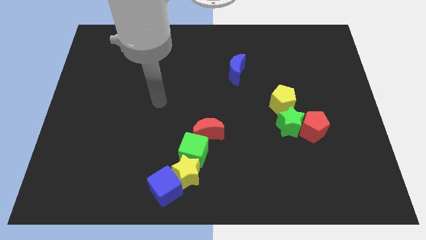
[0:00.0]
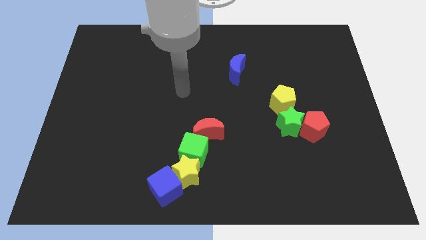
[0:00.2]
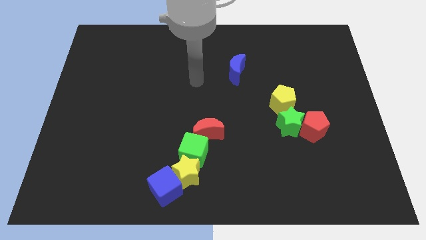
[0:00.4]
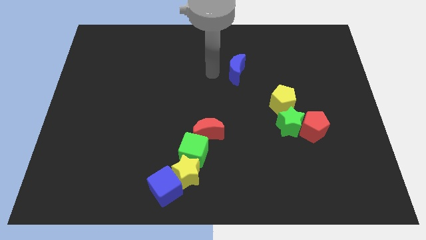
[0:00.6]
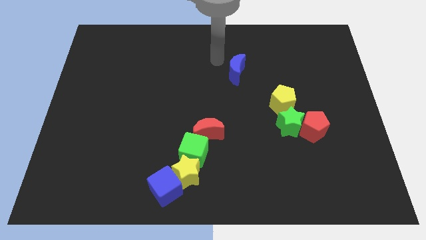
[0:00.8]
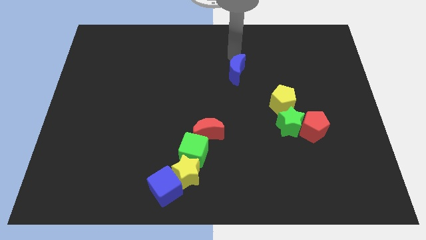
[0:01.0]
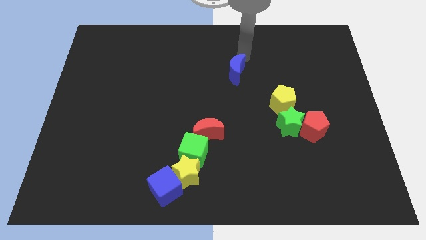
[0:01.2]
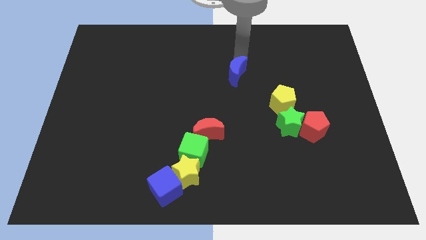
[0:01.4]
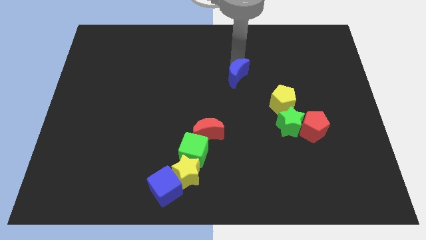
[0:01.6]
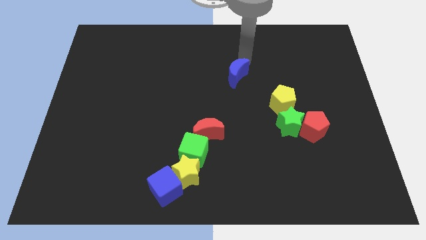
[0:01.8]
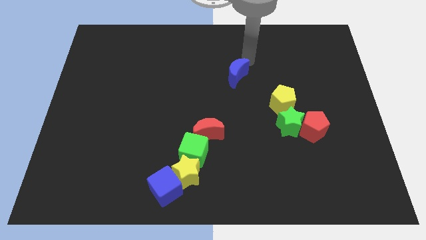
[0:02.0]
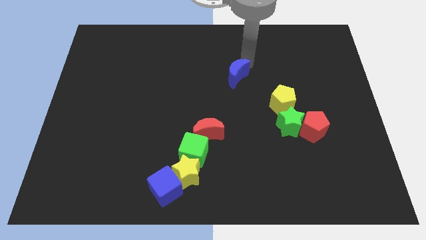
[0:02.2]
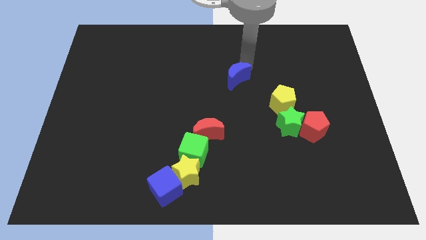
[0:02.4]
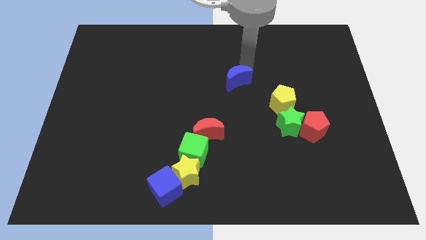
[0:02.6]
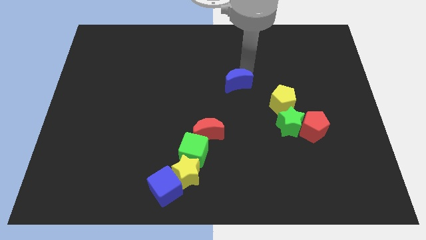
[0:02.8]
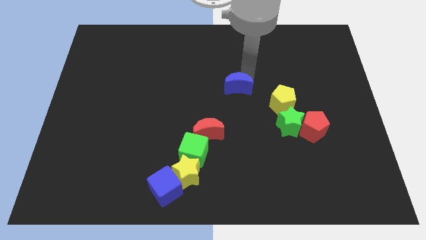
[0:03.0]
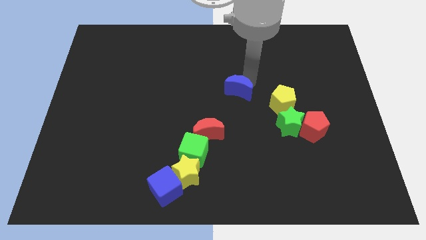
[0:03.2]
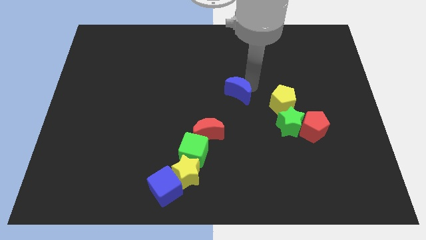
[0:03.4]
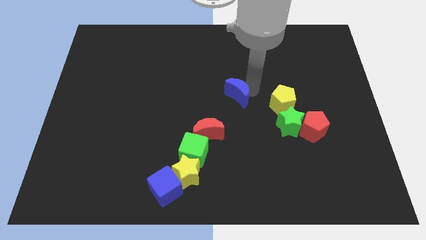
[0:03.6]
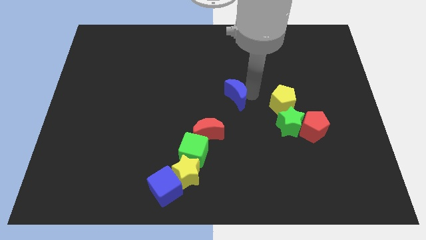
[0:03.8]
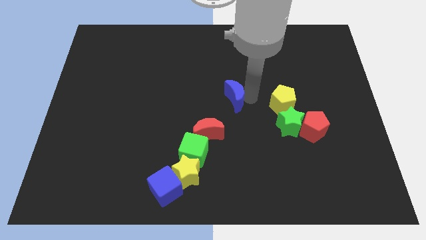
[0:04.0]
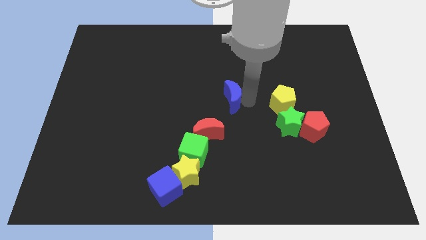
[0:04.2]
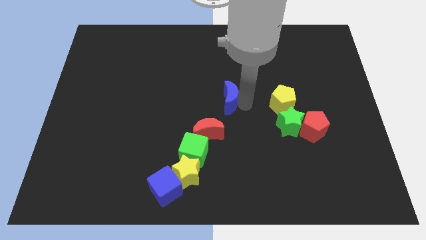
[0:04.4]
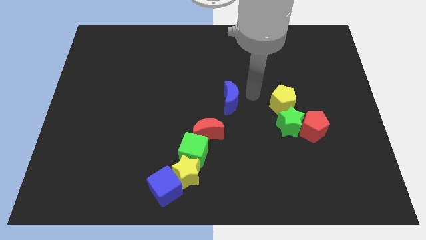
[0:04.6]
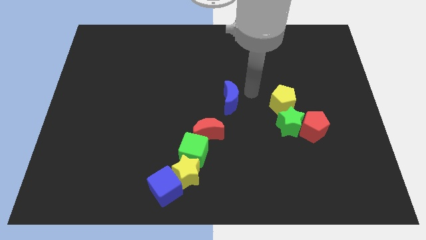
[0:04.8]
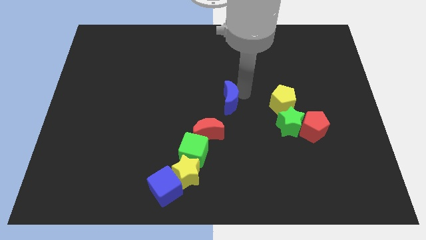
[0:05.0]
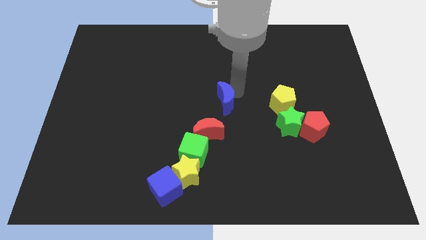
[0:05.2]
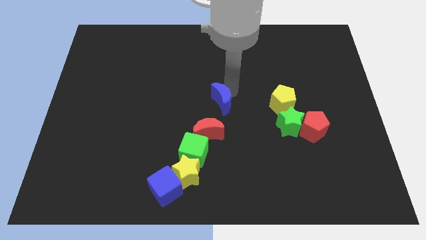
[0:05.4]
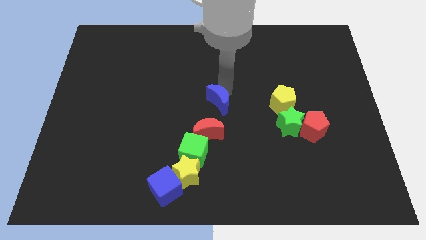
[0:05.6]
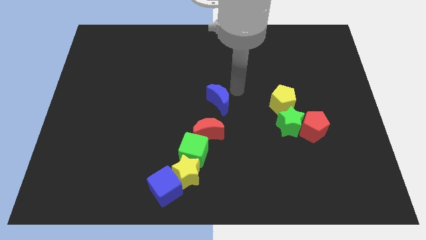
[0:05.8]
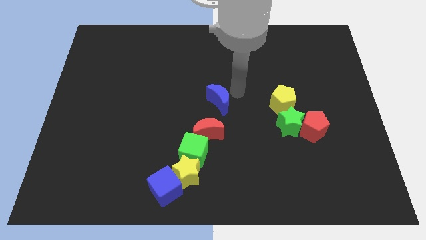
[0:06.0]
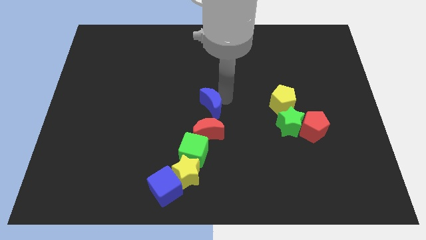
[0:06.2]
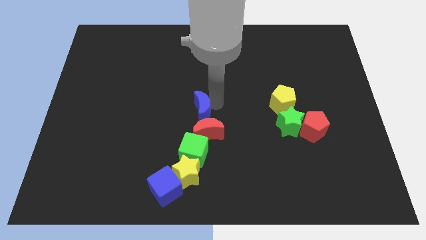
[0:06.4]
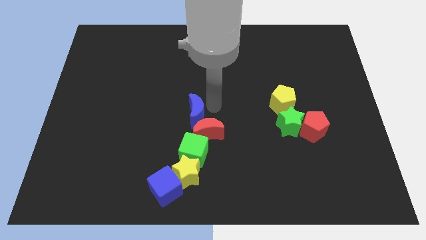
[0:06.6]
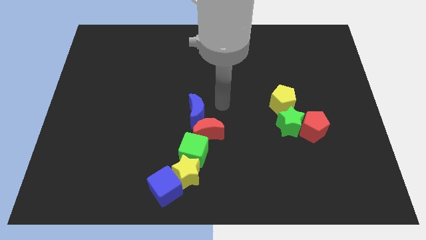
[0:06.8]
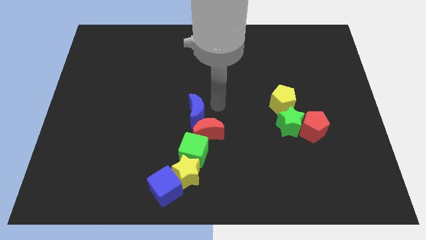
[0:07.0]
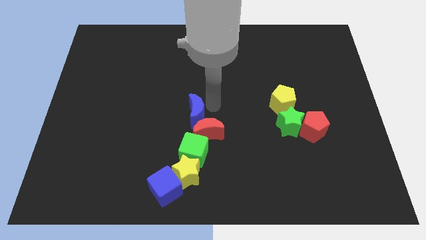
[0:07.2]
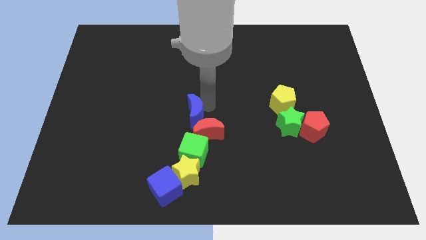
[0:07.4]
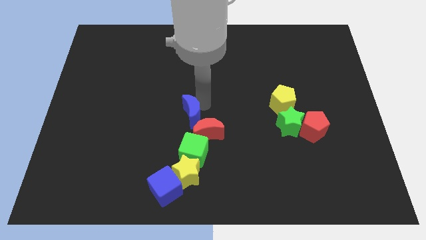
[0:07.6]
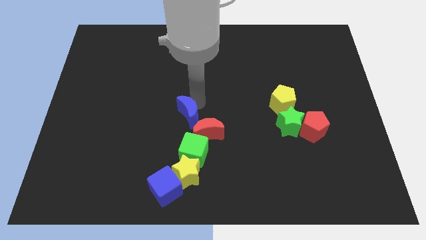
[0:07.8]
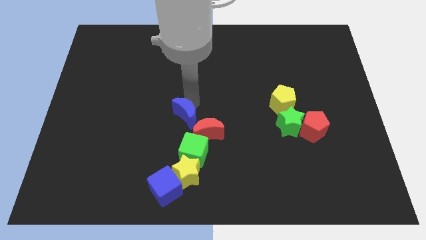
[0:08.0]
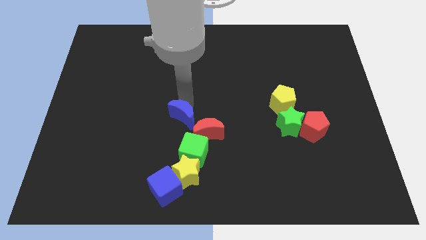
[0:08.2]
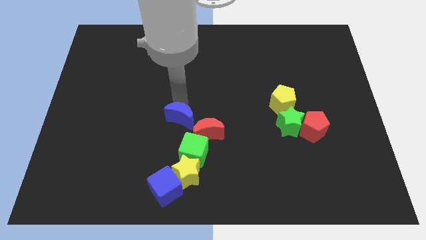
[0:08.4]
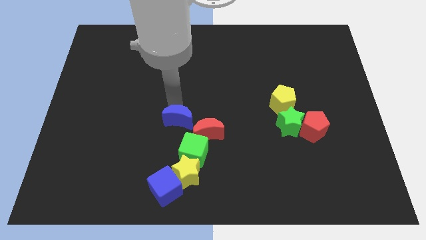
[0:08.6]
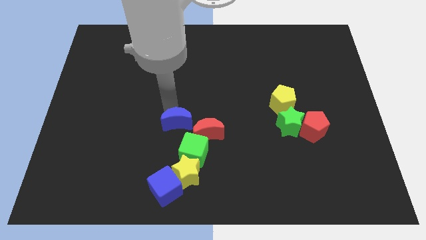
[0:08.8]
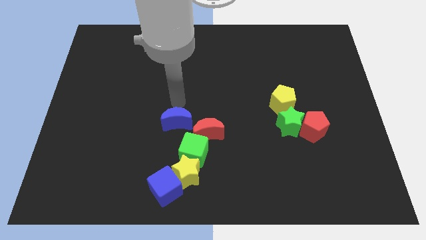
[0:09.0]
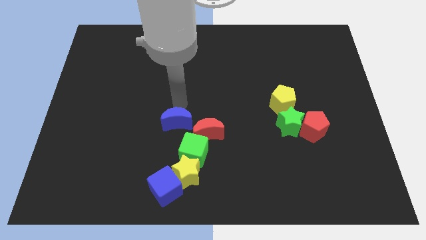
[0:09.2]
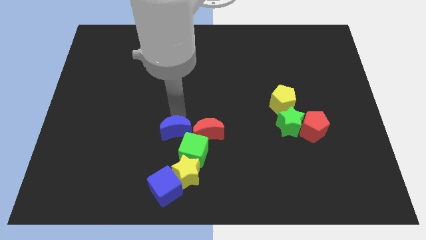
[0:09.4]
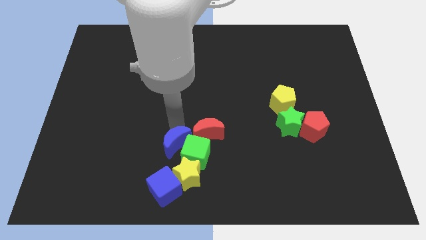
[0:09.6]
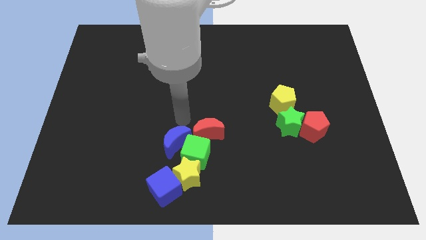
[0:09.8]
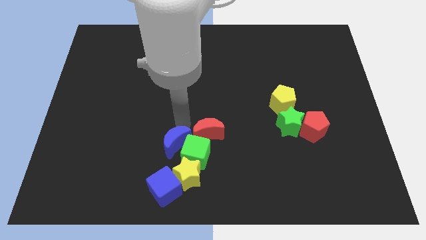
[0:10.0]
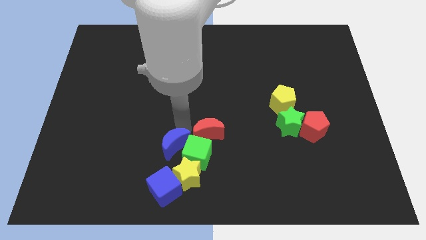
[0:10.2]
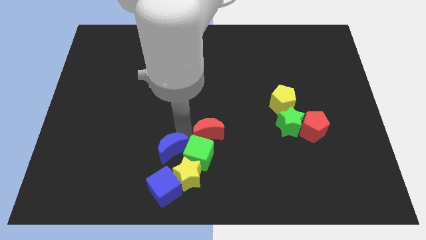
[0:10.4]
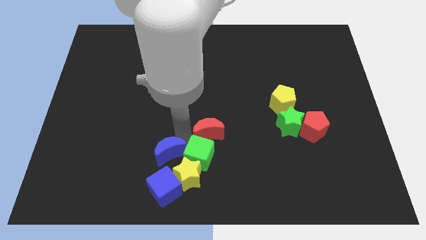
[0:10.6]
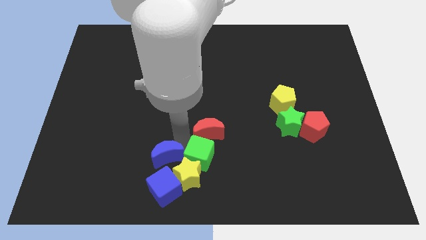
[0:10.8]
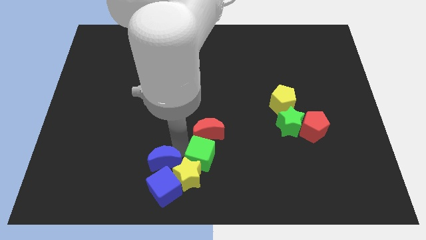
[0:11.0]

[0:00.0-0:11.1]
push the blue moon close to the blue cube

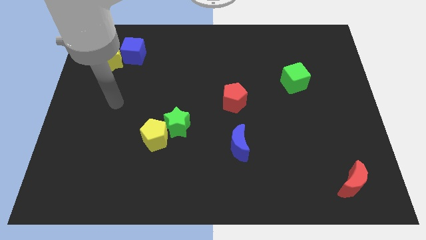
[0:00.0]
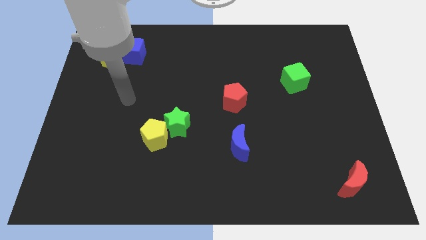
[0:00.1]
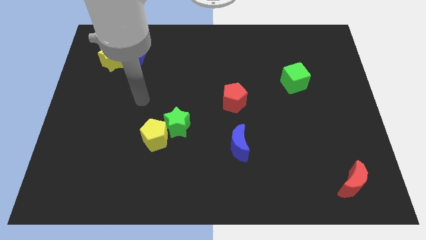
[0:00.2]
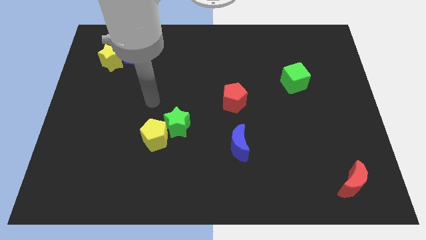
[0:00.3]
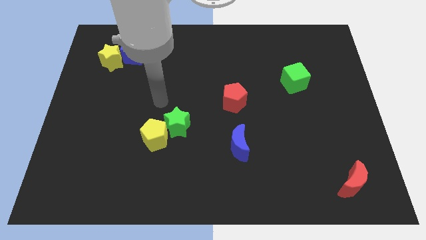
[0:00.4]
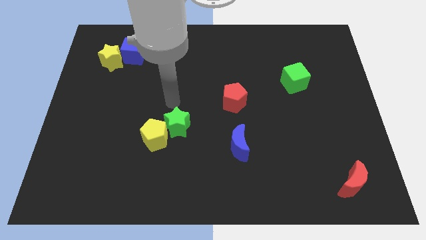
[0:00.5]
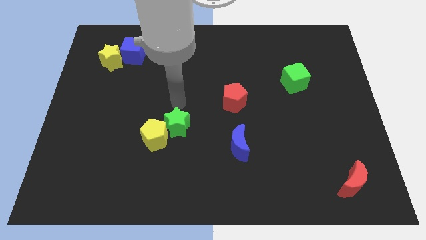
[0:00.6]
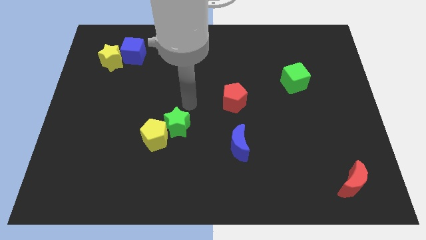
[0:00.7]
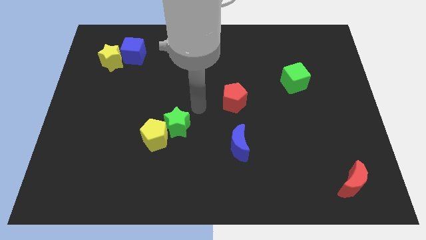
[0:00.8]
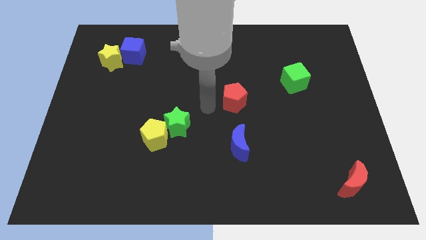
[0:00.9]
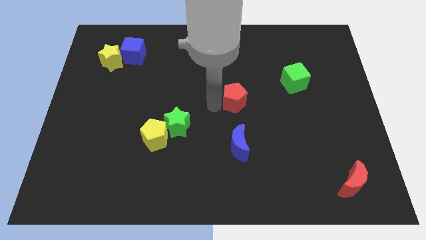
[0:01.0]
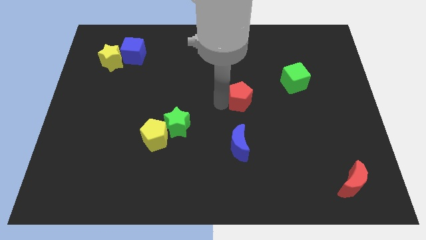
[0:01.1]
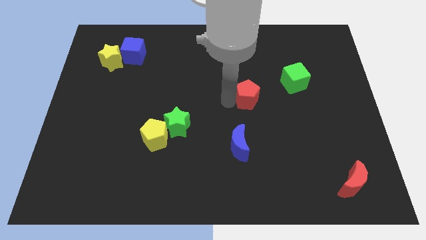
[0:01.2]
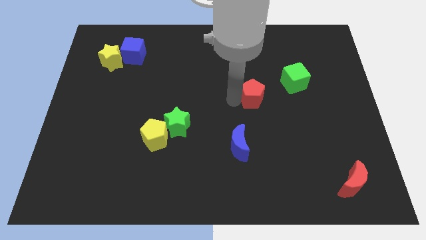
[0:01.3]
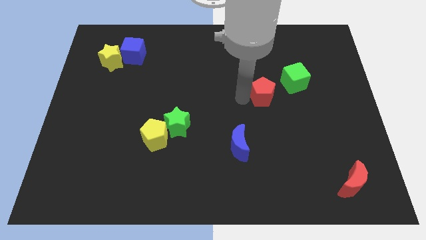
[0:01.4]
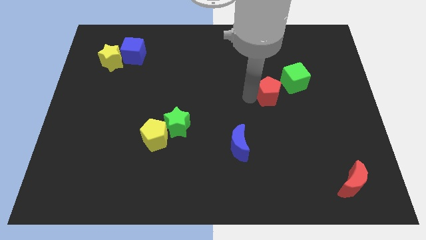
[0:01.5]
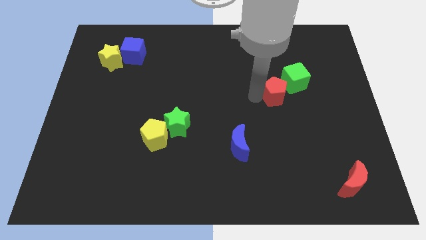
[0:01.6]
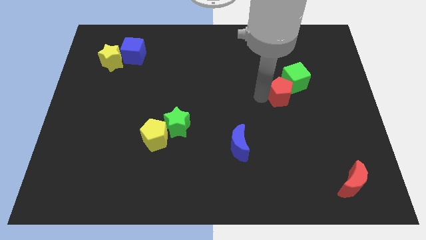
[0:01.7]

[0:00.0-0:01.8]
move the red pentagon next to the green cube
